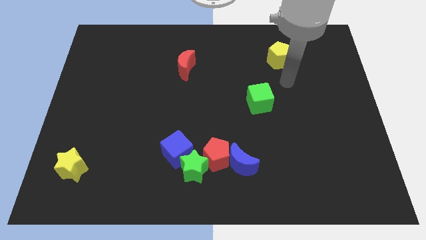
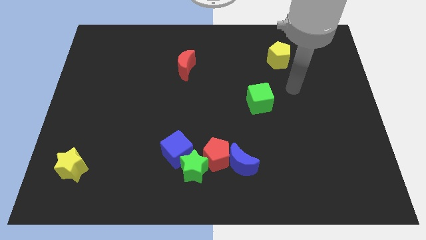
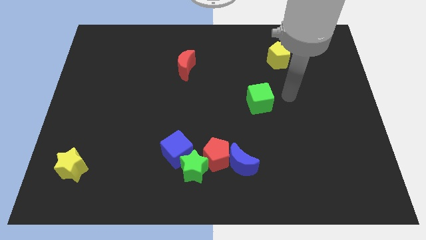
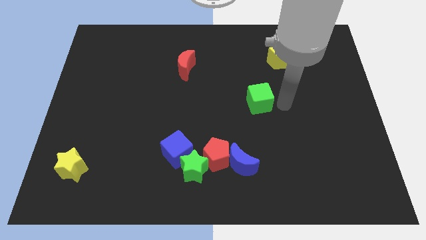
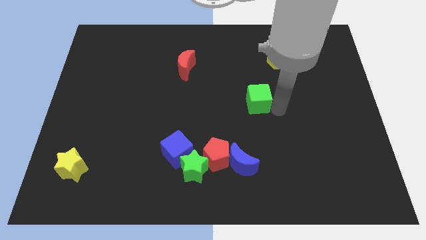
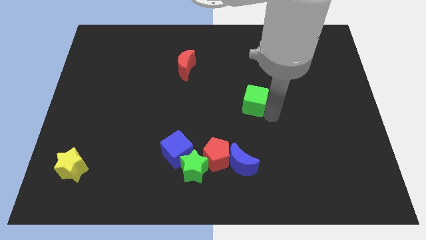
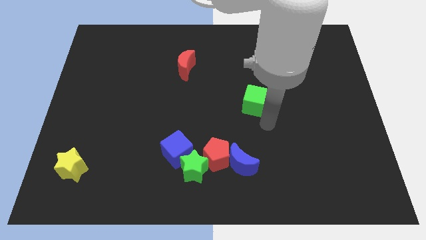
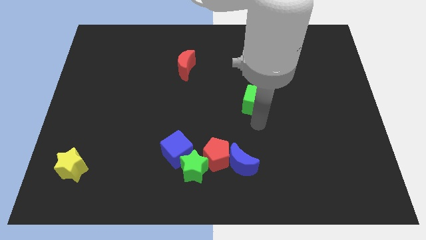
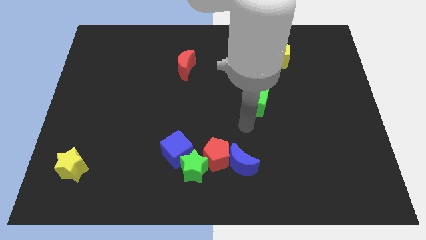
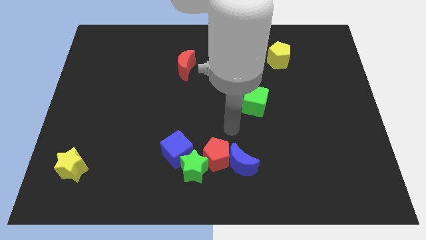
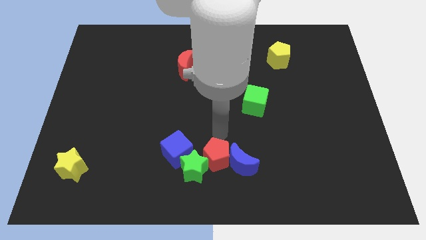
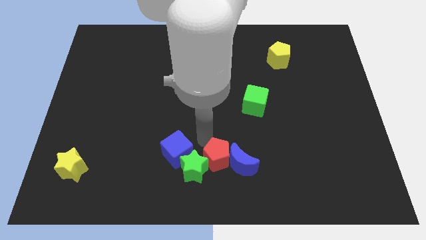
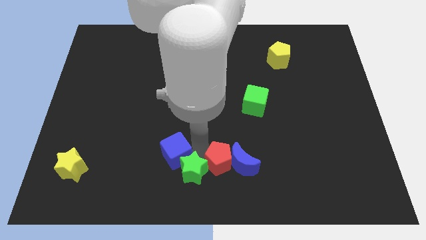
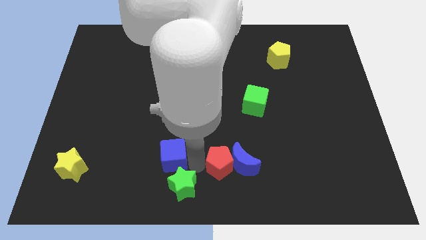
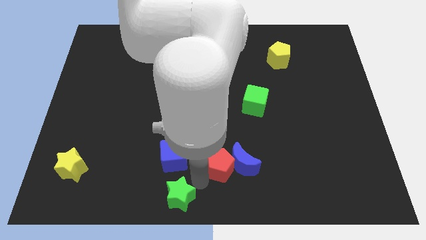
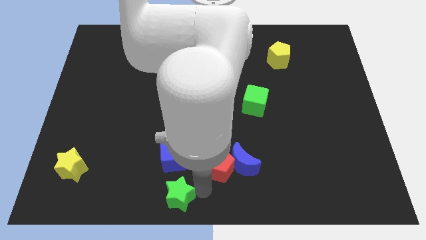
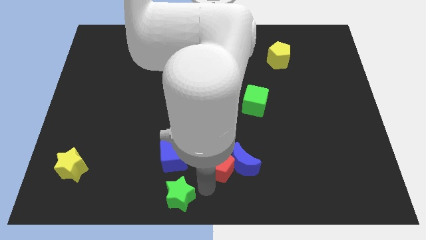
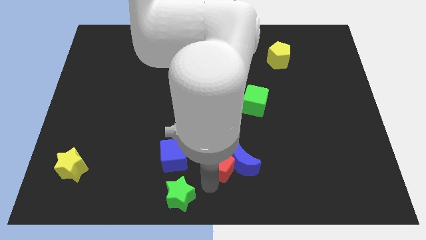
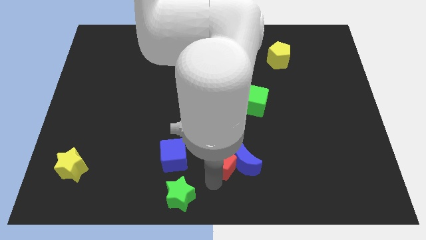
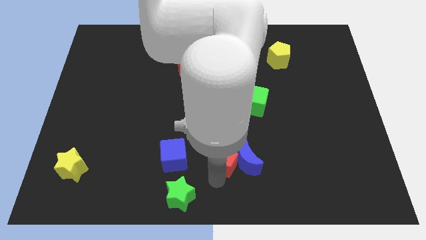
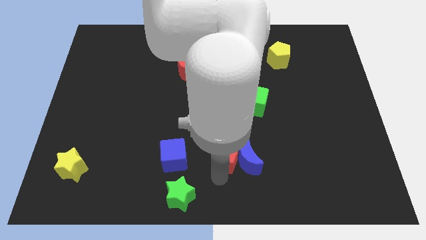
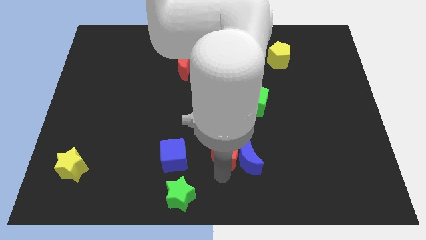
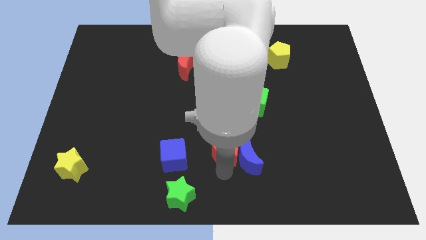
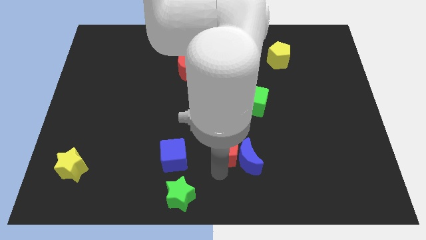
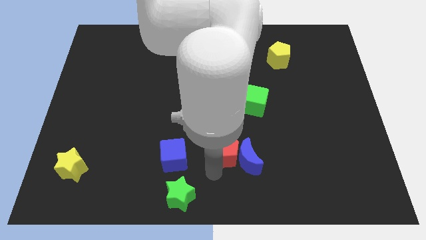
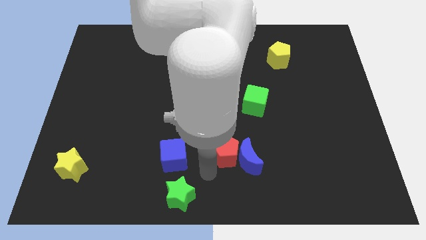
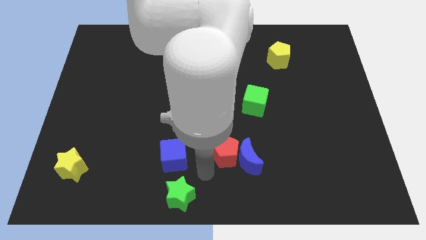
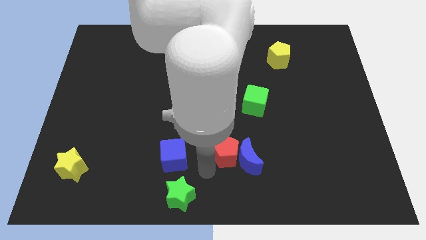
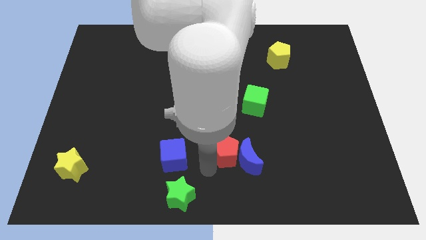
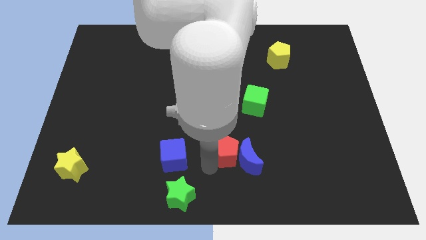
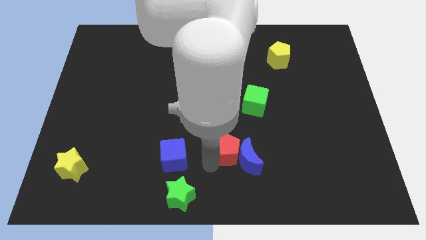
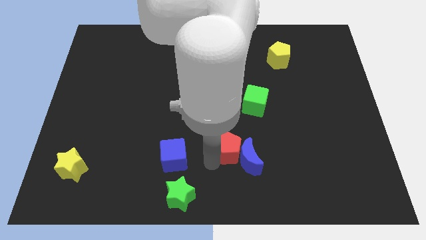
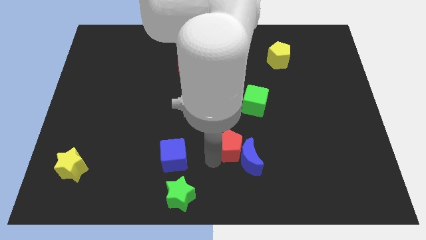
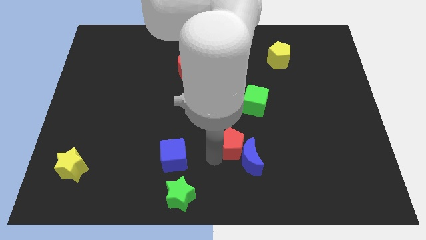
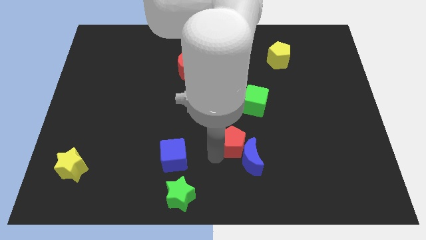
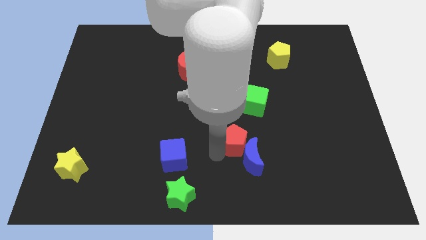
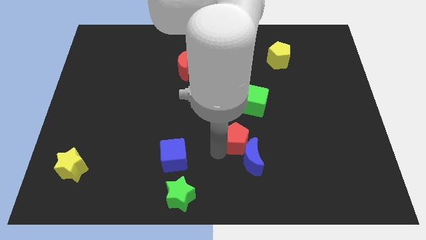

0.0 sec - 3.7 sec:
pull the red pentagon apart from the blue moon, green star, and blue cube

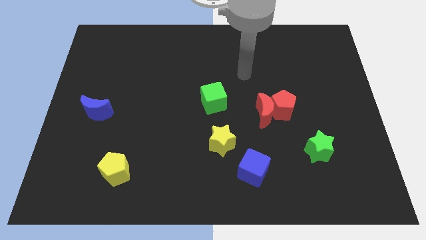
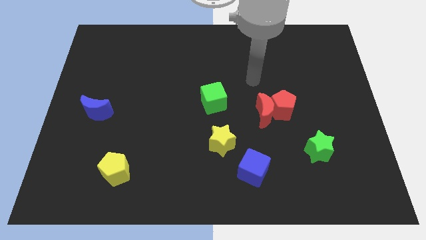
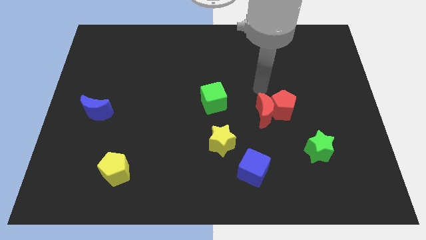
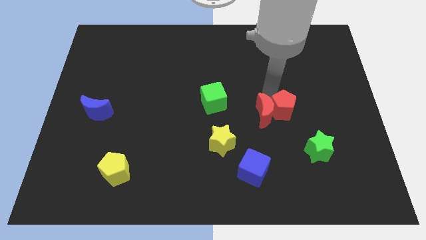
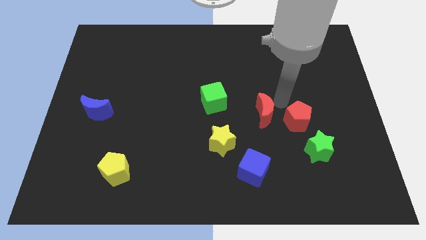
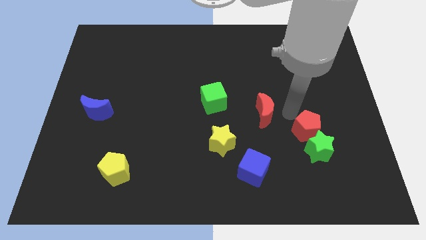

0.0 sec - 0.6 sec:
pull the red moon apart from the red pentagon

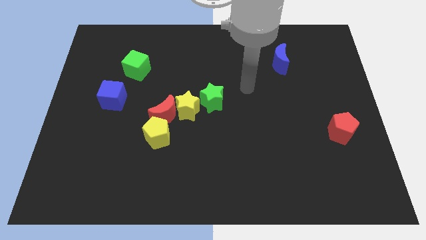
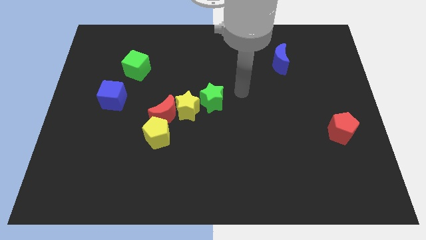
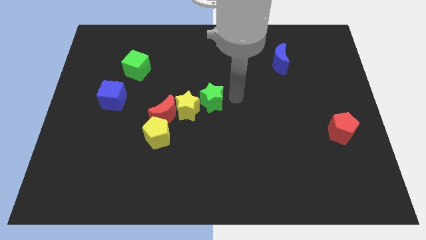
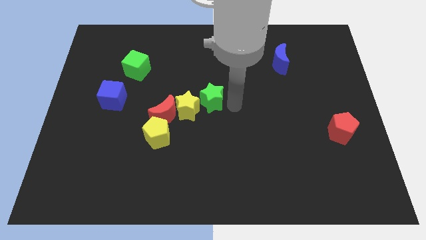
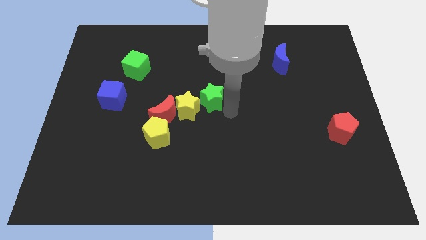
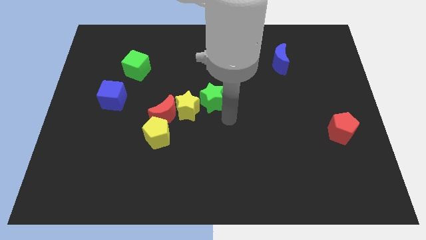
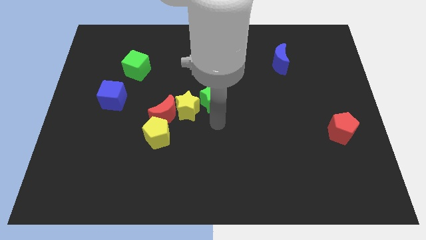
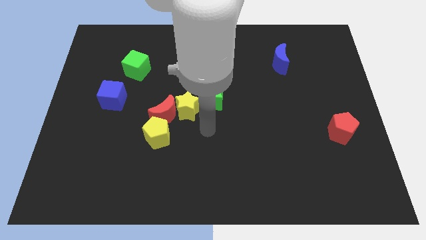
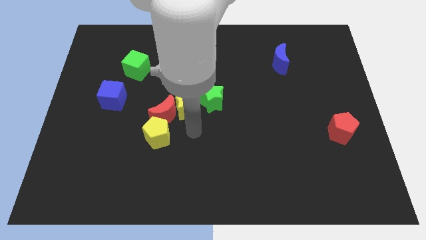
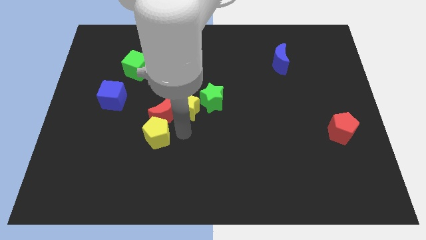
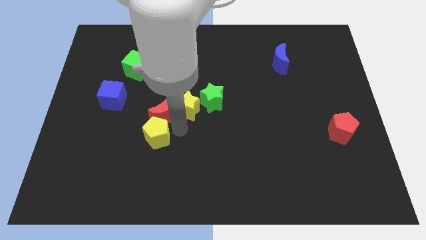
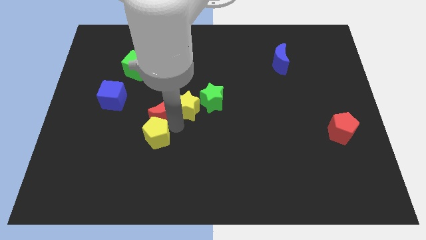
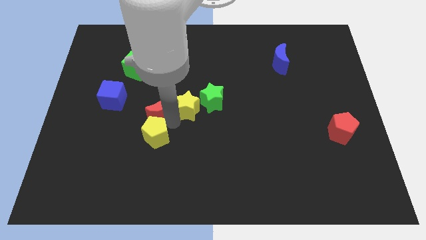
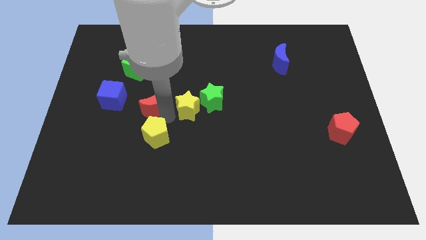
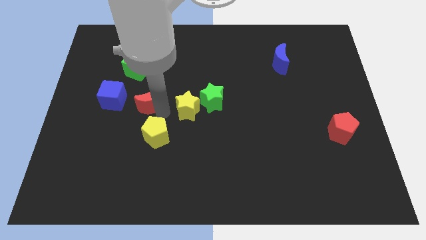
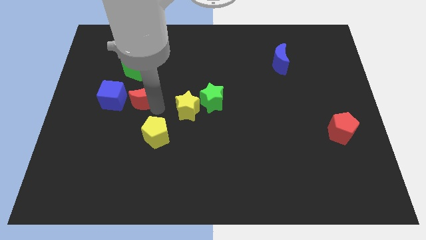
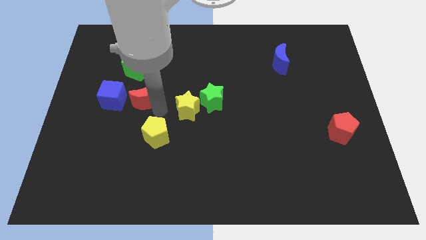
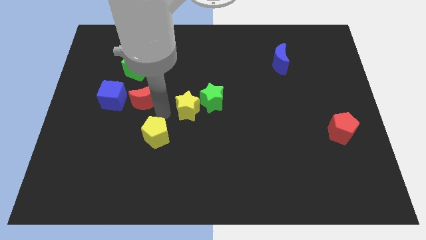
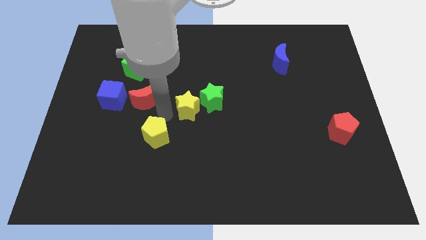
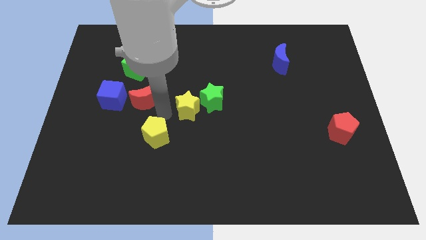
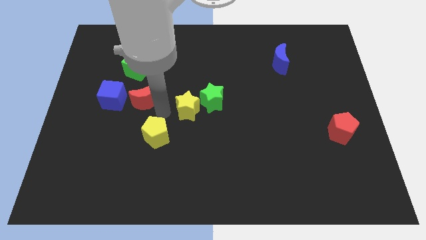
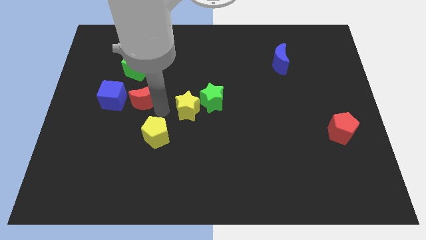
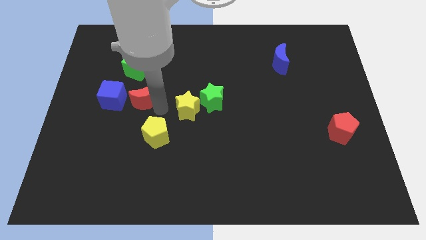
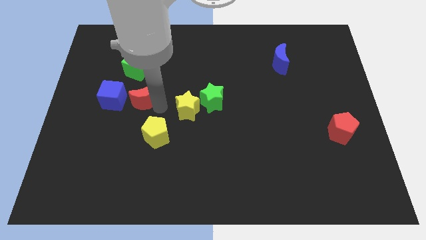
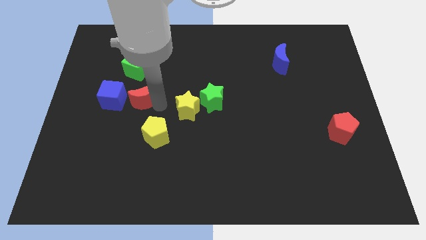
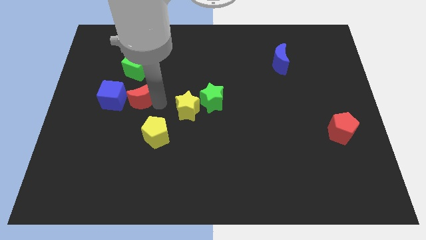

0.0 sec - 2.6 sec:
move the red moon away from the yellow star and yellow pentagon

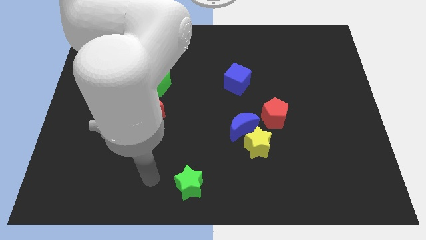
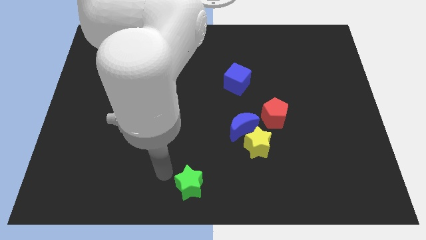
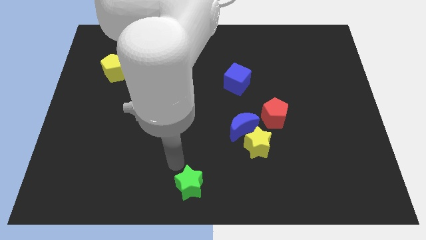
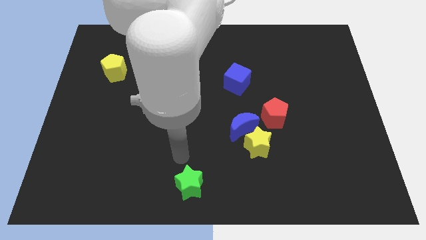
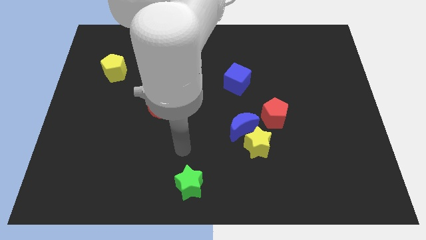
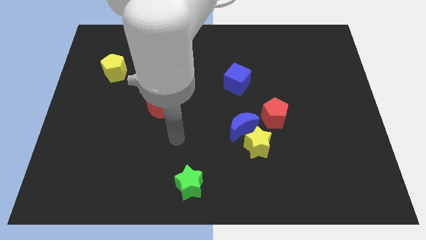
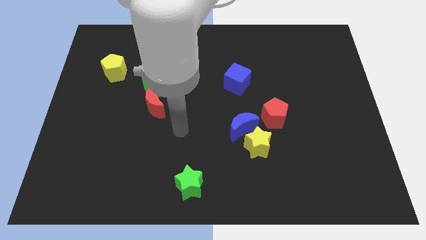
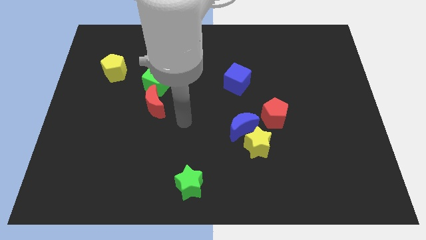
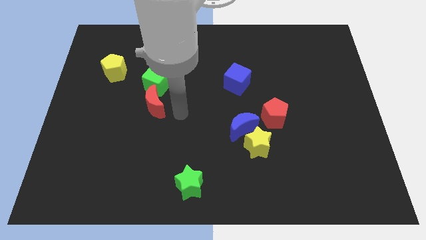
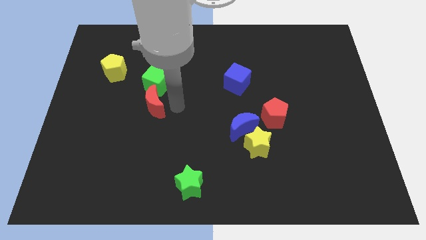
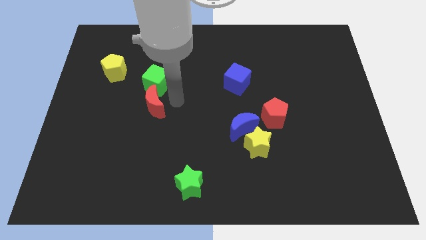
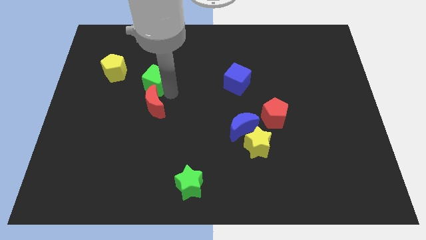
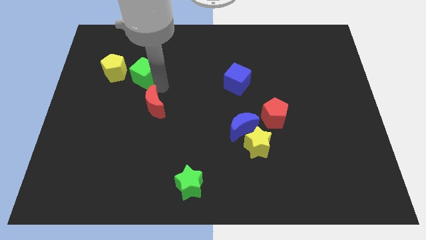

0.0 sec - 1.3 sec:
move the red moon away from the green cube

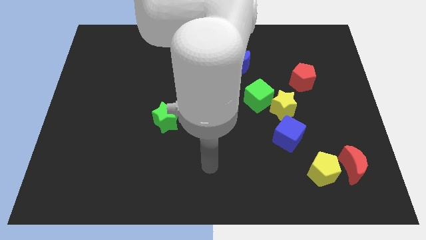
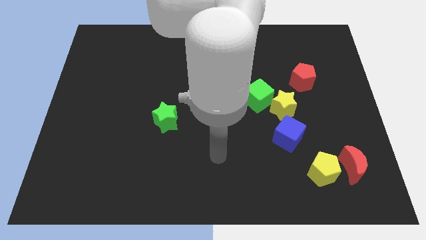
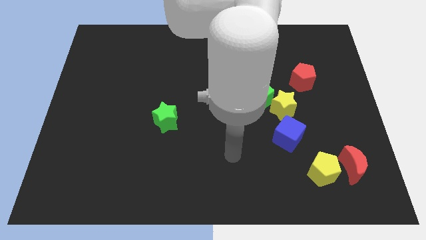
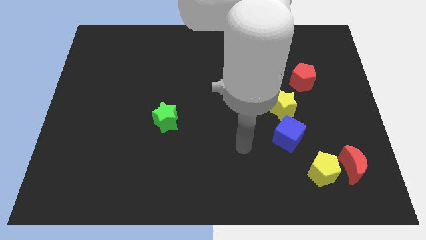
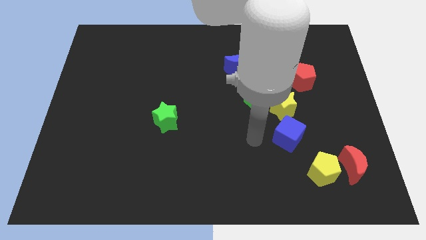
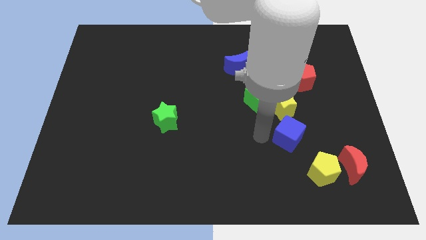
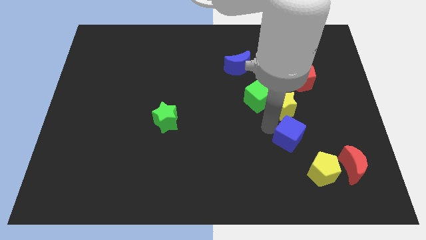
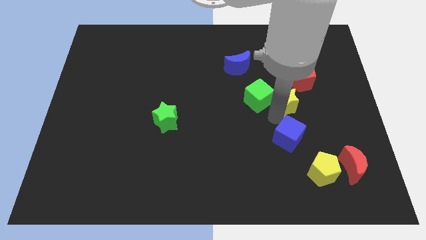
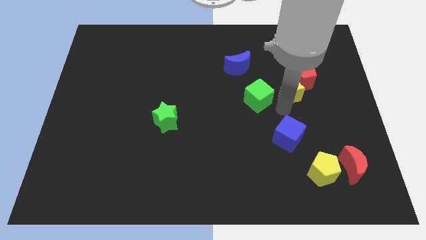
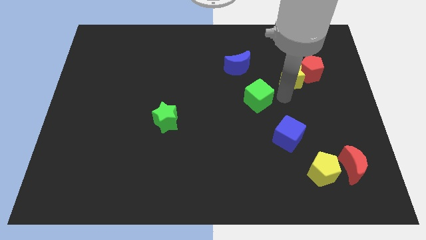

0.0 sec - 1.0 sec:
separate the green cube from the yellow star
